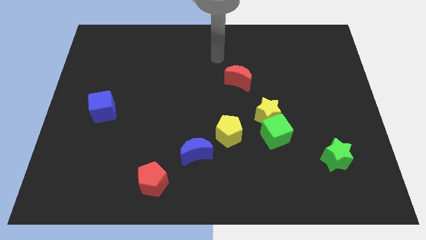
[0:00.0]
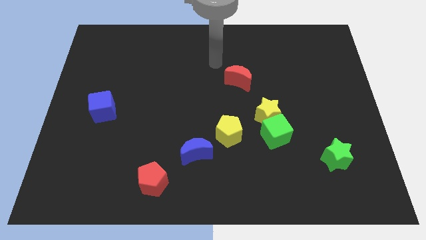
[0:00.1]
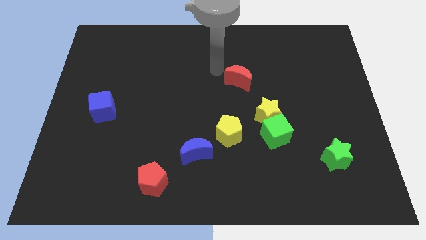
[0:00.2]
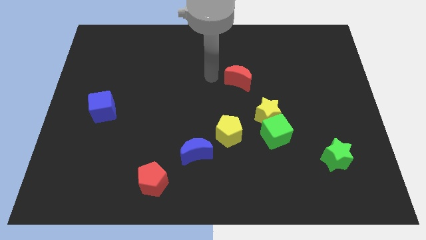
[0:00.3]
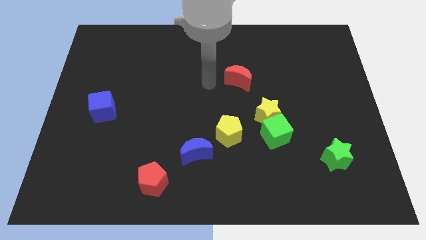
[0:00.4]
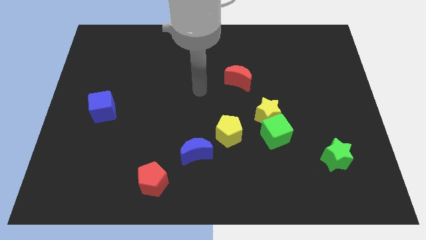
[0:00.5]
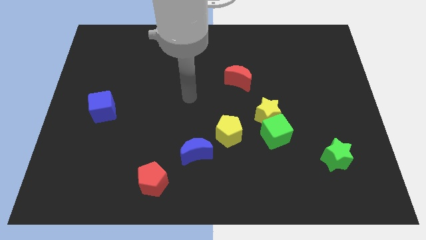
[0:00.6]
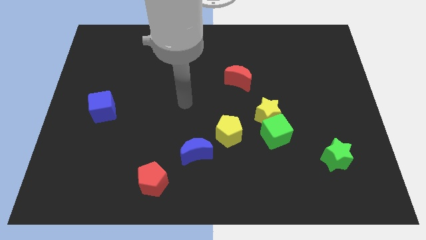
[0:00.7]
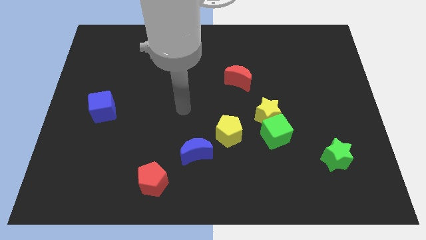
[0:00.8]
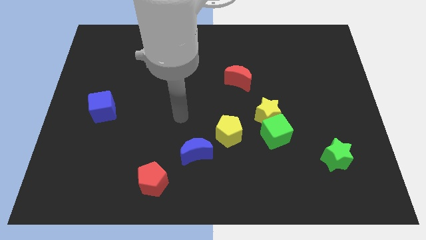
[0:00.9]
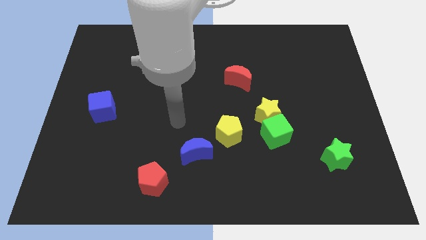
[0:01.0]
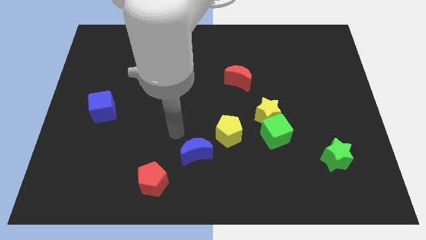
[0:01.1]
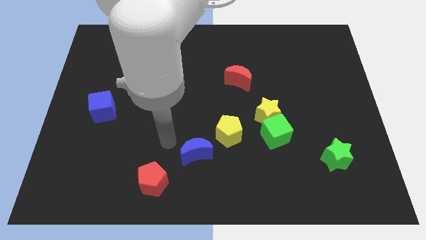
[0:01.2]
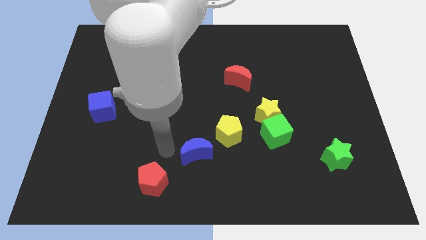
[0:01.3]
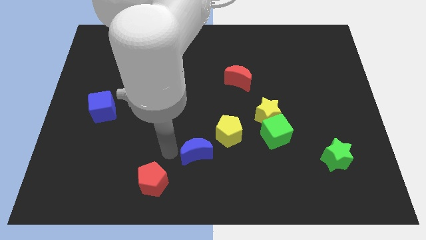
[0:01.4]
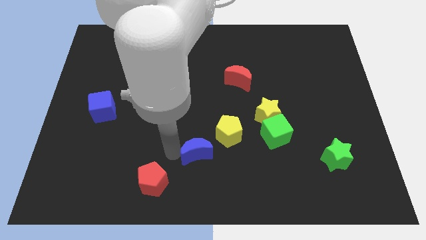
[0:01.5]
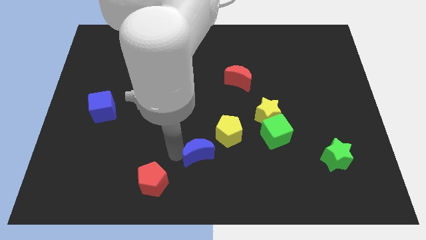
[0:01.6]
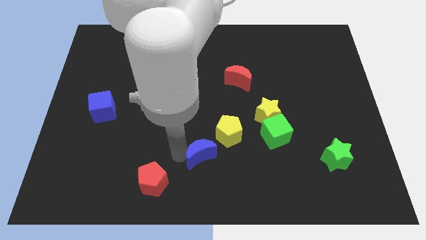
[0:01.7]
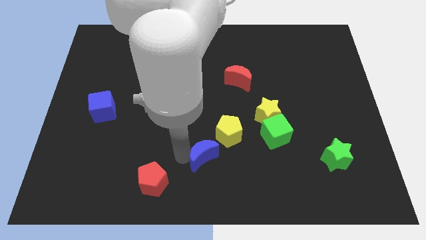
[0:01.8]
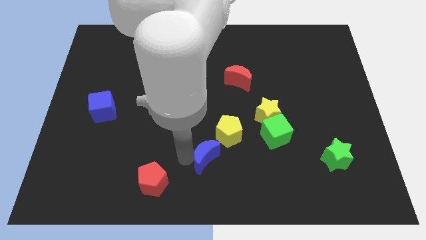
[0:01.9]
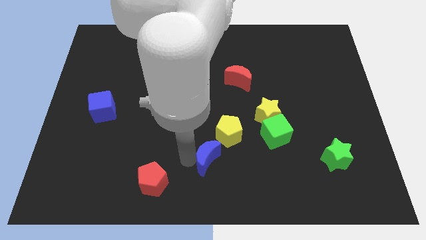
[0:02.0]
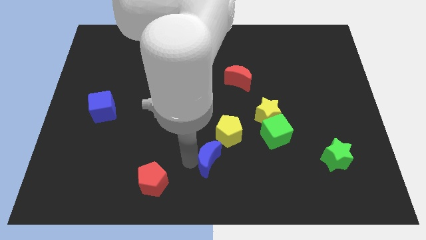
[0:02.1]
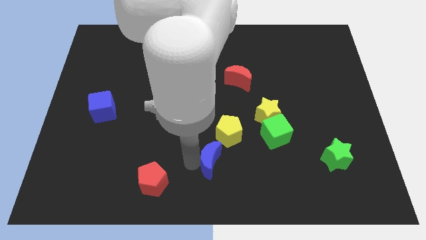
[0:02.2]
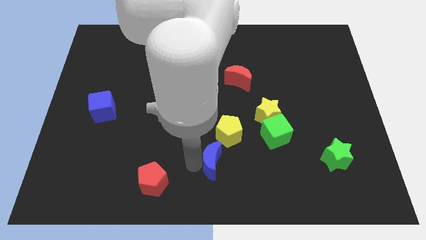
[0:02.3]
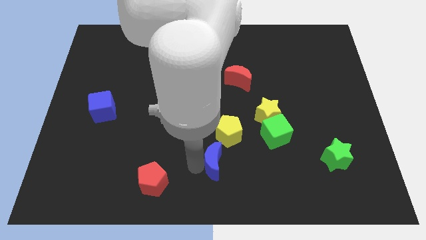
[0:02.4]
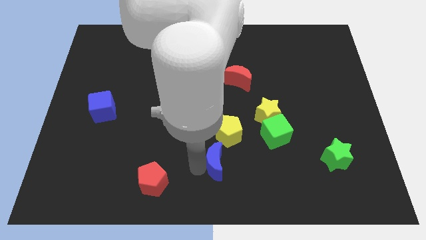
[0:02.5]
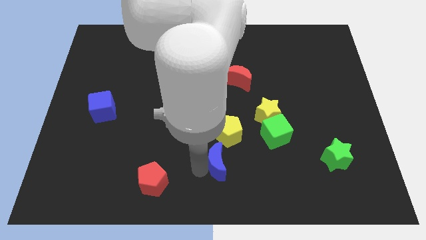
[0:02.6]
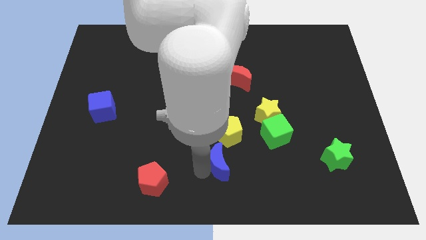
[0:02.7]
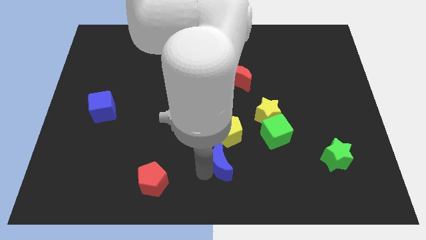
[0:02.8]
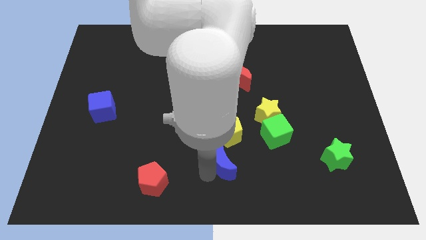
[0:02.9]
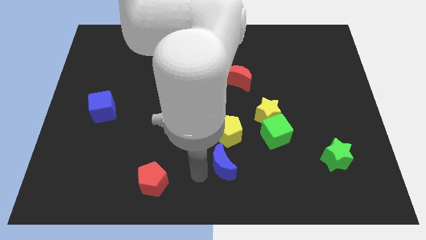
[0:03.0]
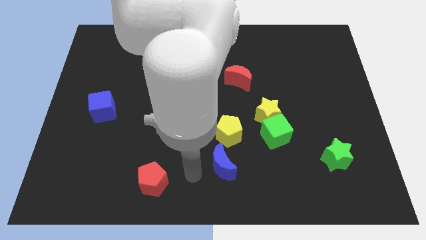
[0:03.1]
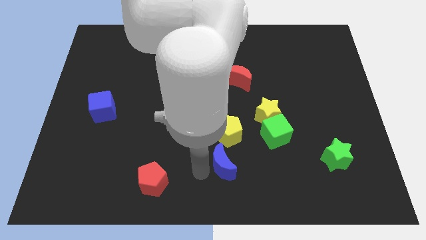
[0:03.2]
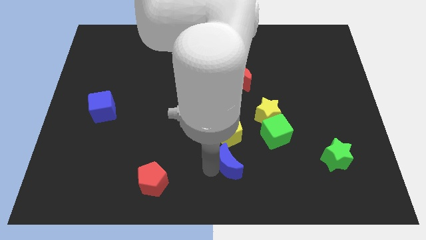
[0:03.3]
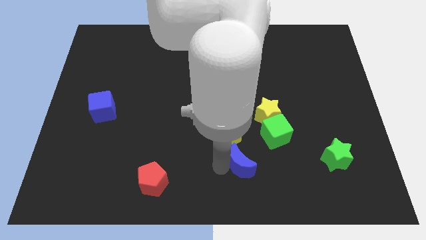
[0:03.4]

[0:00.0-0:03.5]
slightly move the blue moon to the right

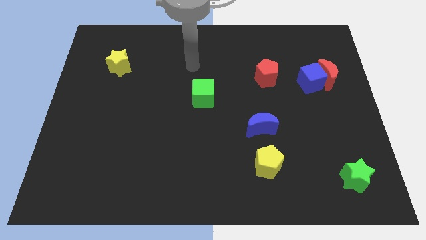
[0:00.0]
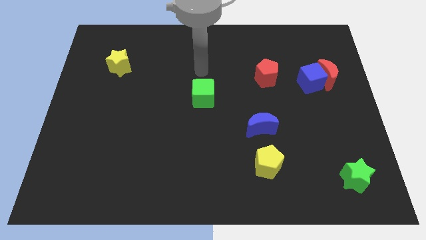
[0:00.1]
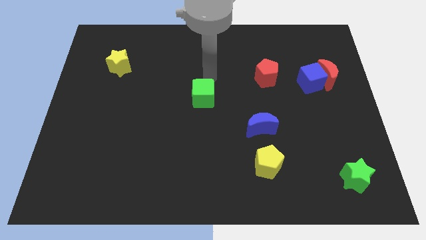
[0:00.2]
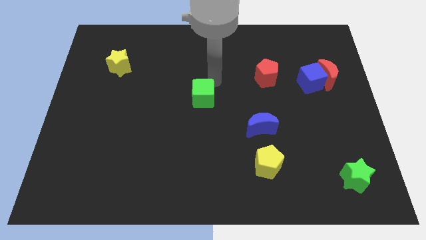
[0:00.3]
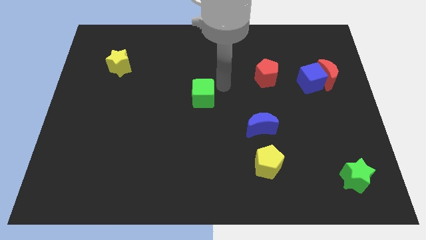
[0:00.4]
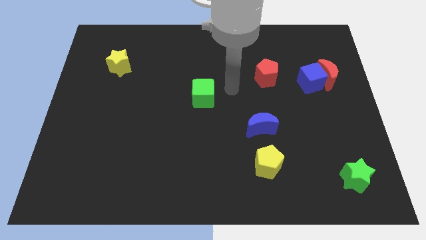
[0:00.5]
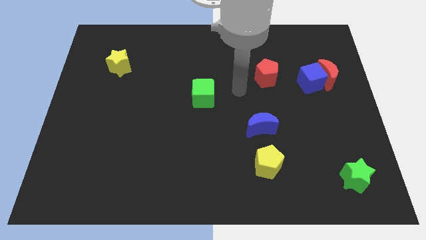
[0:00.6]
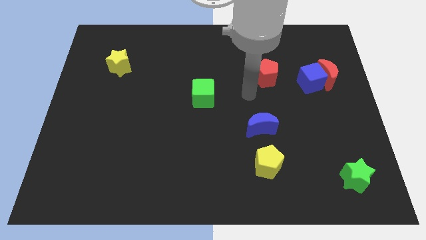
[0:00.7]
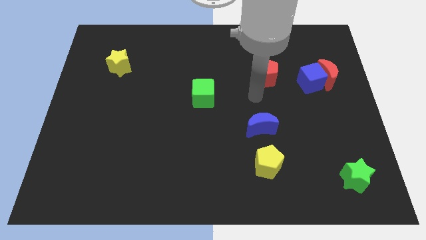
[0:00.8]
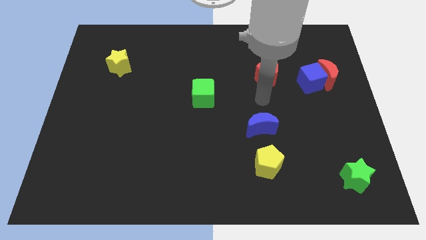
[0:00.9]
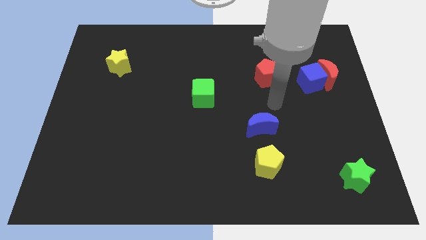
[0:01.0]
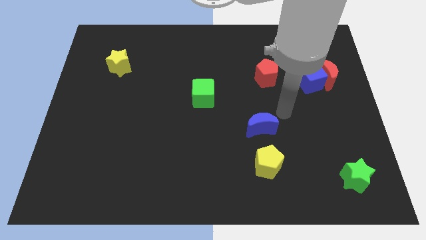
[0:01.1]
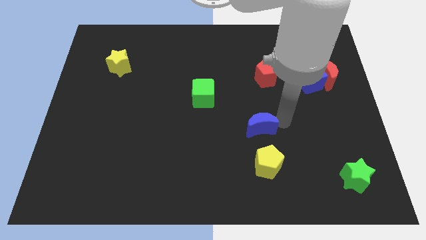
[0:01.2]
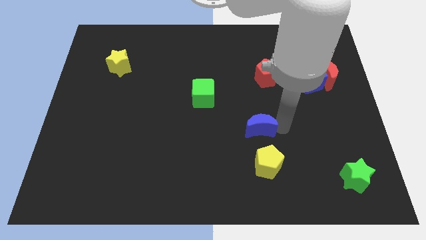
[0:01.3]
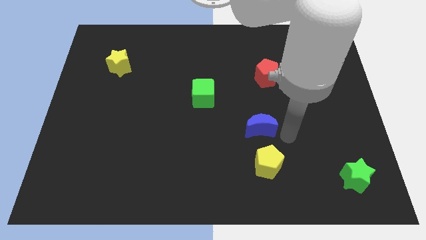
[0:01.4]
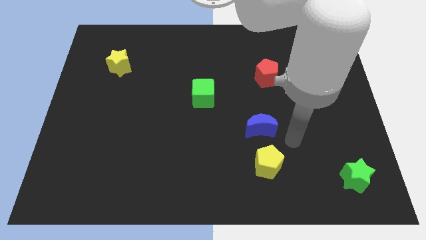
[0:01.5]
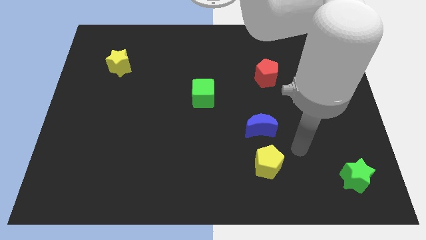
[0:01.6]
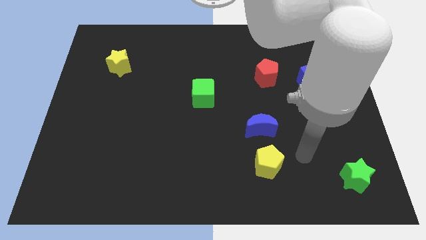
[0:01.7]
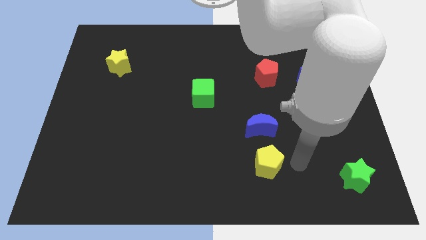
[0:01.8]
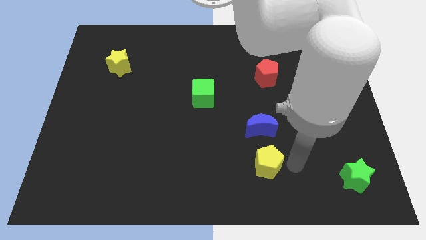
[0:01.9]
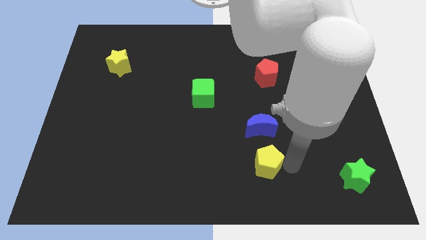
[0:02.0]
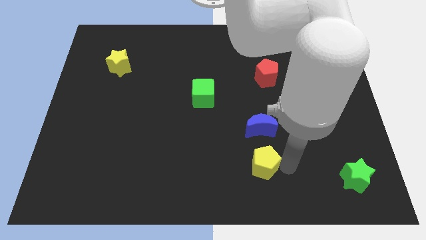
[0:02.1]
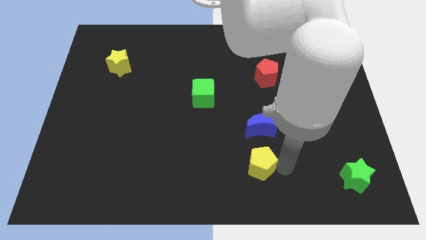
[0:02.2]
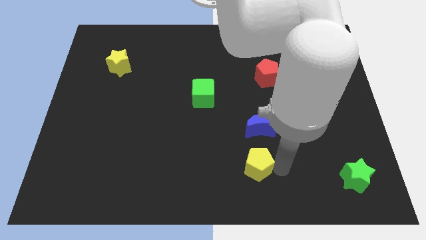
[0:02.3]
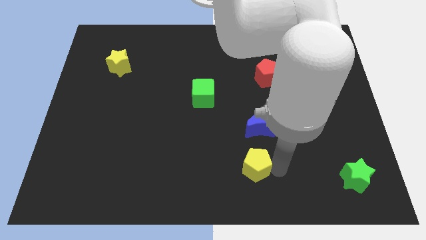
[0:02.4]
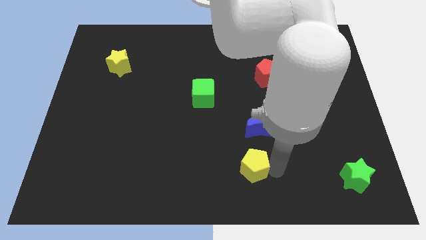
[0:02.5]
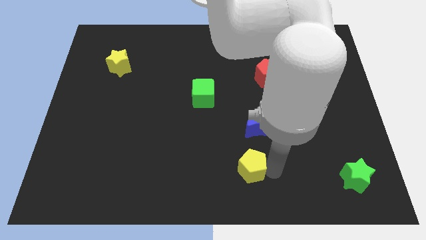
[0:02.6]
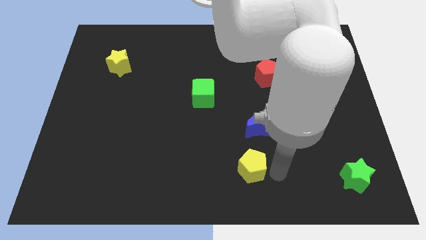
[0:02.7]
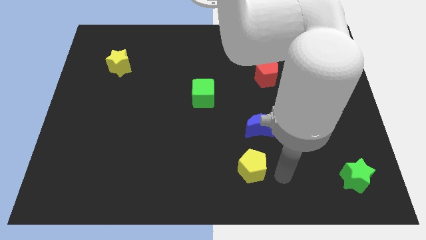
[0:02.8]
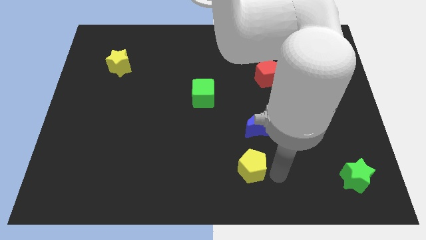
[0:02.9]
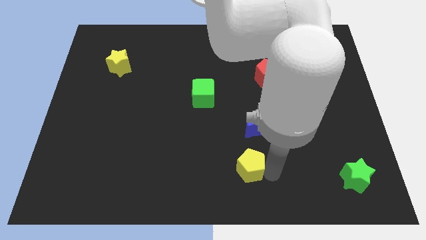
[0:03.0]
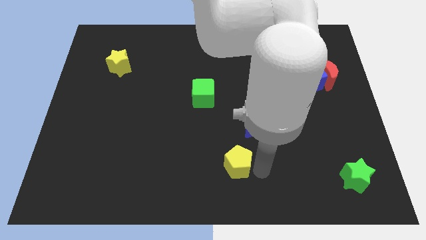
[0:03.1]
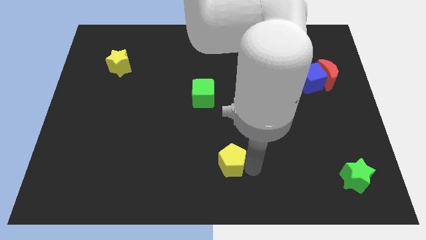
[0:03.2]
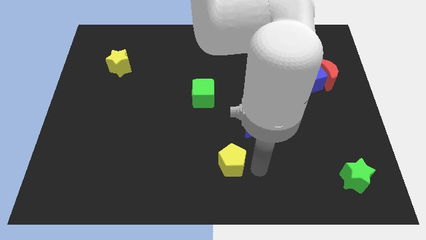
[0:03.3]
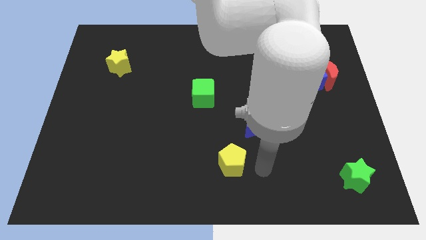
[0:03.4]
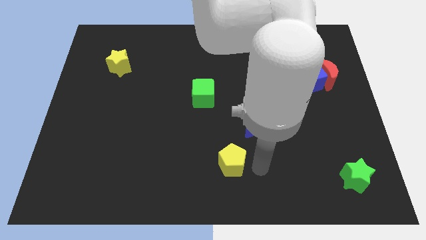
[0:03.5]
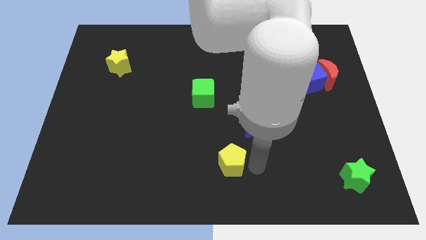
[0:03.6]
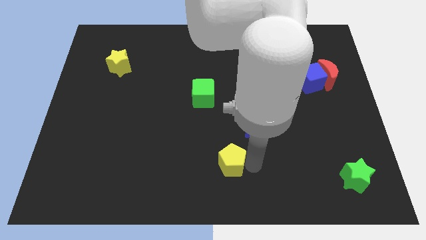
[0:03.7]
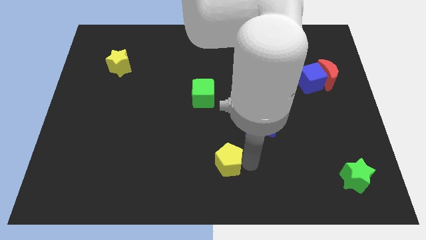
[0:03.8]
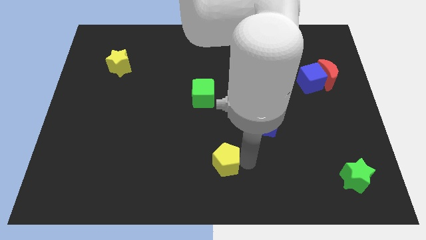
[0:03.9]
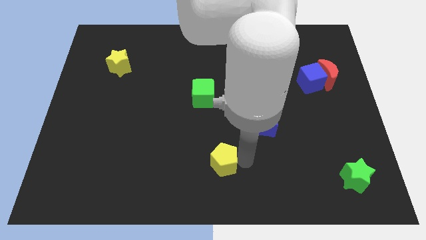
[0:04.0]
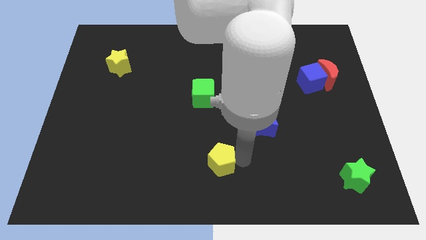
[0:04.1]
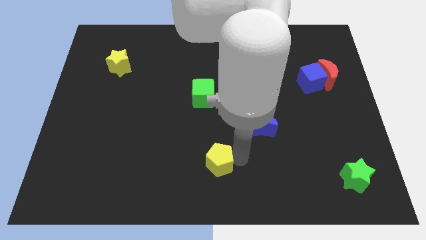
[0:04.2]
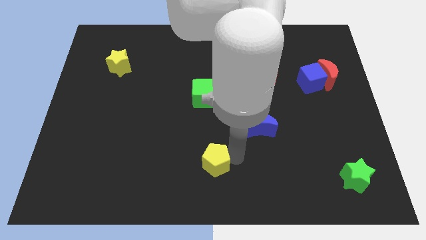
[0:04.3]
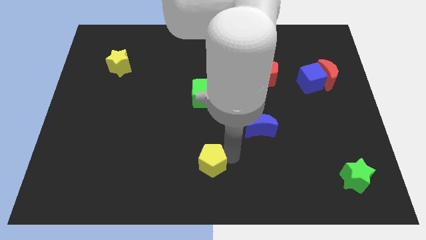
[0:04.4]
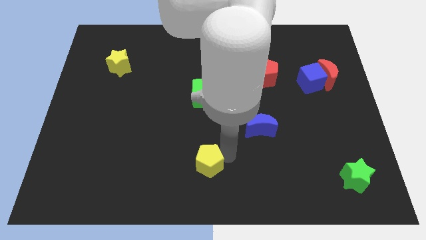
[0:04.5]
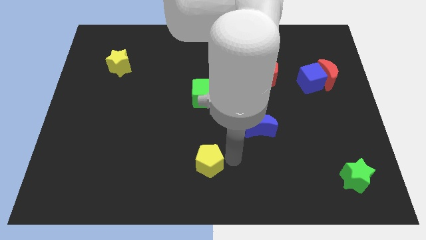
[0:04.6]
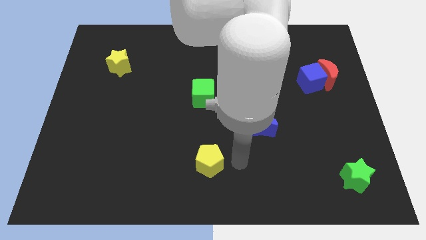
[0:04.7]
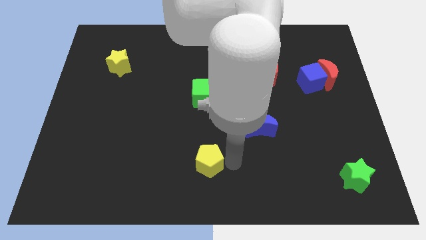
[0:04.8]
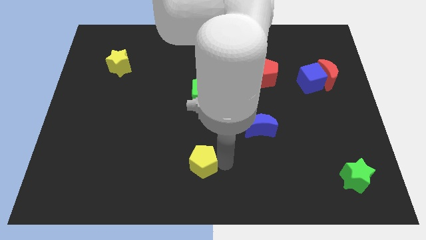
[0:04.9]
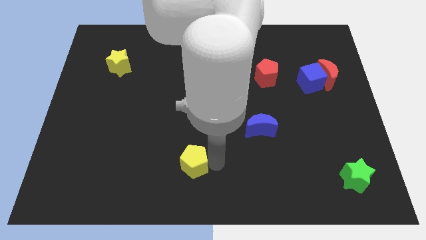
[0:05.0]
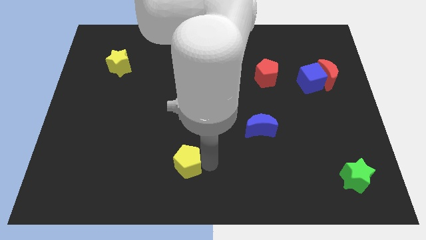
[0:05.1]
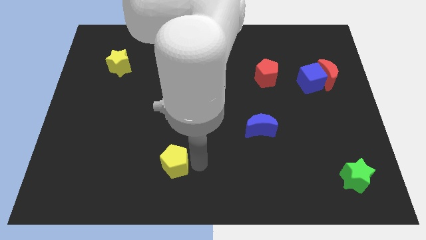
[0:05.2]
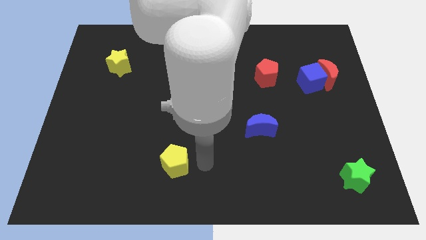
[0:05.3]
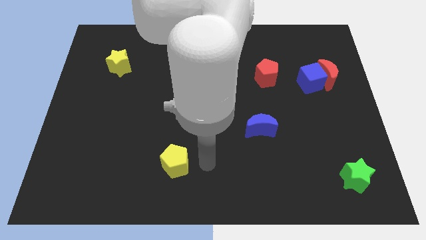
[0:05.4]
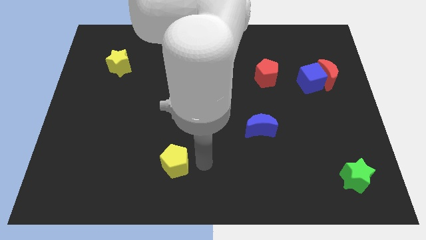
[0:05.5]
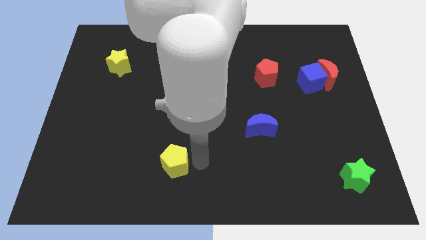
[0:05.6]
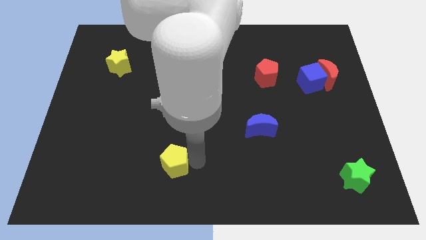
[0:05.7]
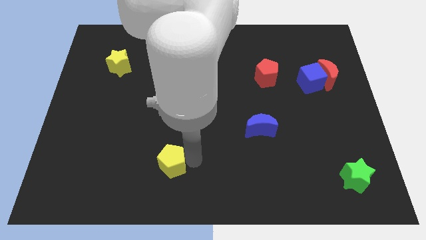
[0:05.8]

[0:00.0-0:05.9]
slide the yellow pentagon left
